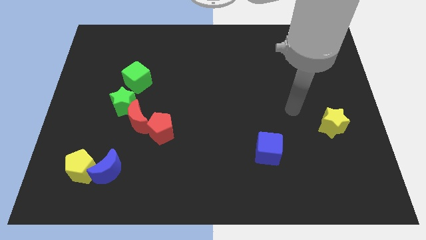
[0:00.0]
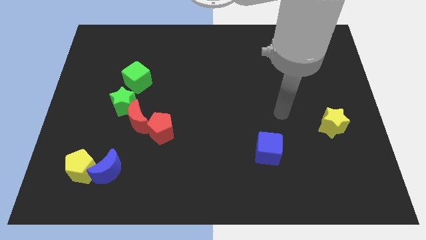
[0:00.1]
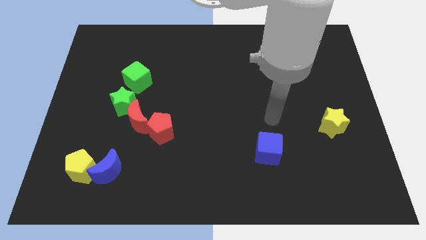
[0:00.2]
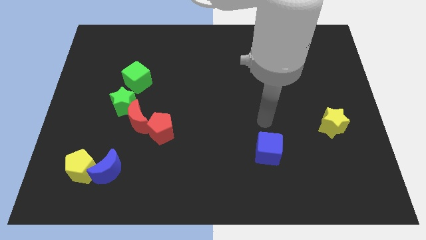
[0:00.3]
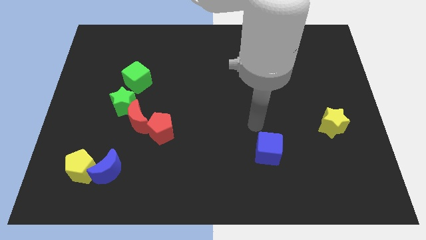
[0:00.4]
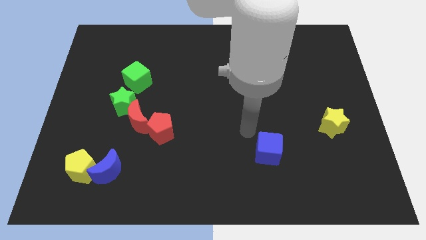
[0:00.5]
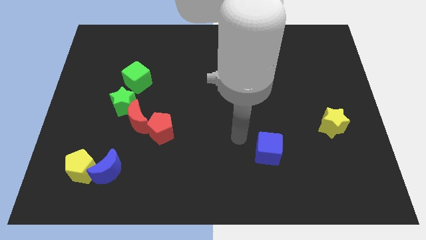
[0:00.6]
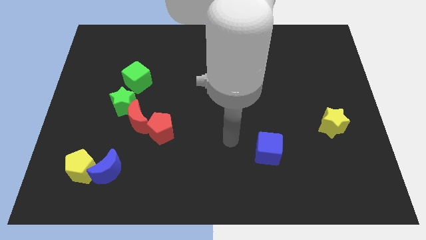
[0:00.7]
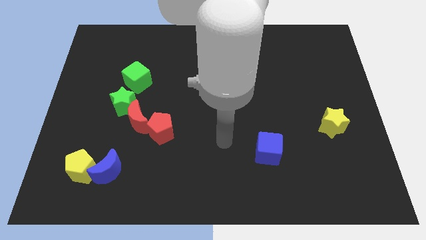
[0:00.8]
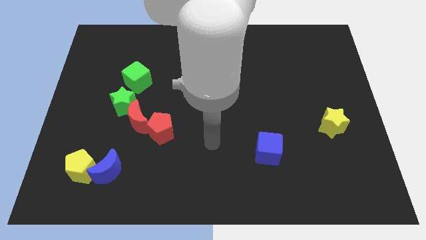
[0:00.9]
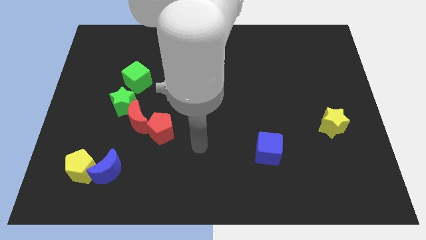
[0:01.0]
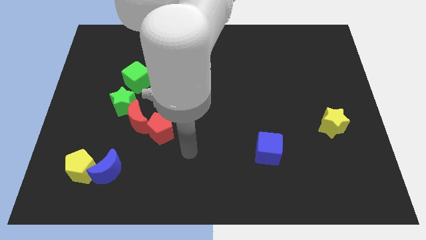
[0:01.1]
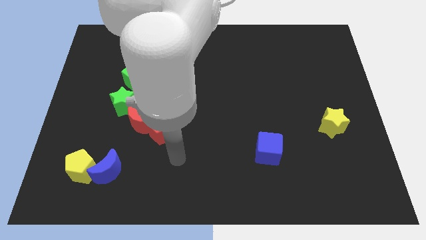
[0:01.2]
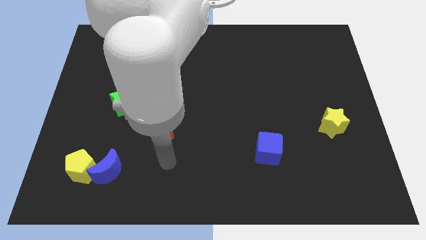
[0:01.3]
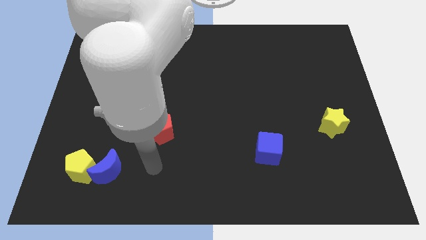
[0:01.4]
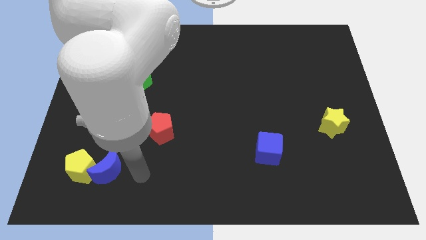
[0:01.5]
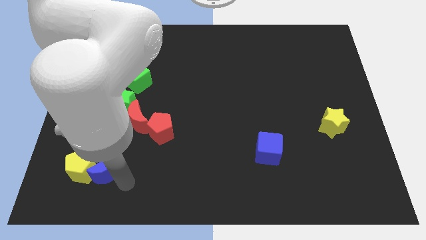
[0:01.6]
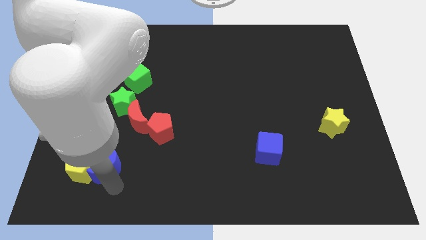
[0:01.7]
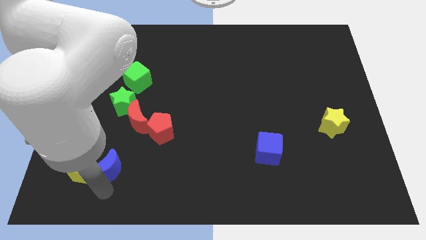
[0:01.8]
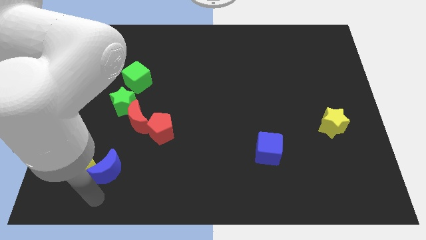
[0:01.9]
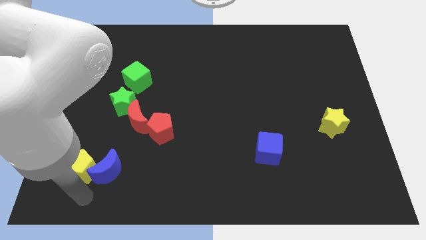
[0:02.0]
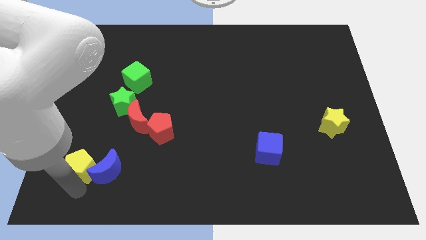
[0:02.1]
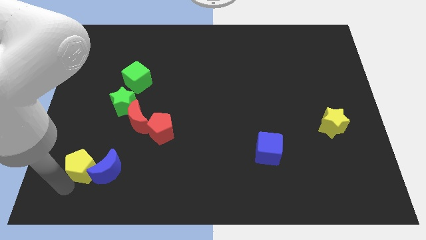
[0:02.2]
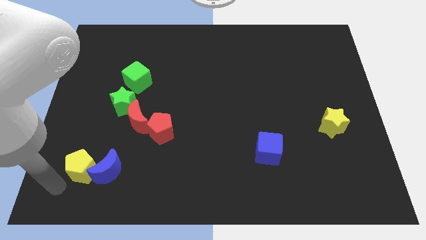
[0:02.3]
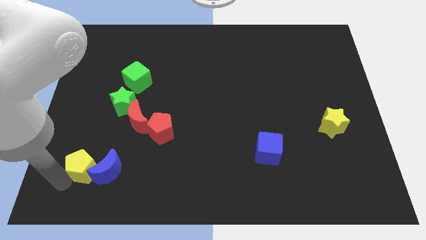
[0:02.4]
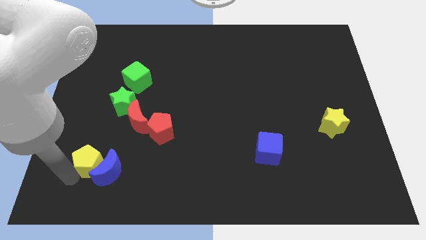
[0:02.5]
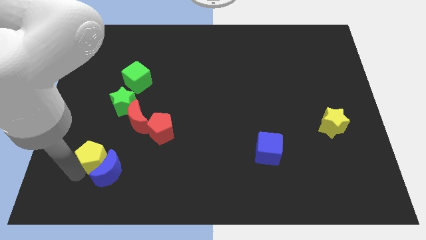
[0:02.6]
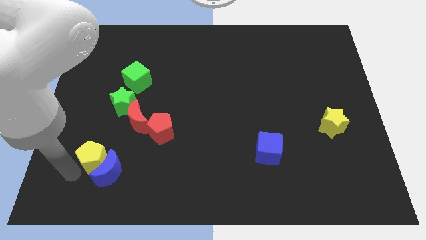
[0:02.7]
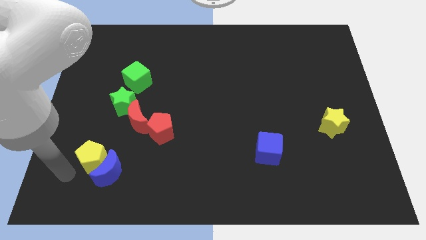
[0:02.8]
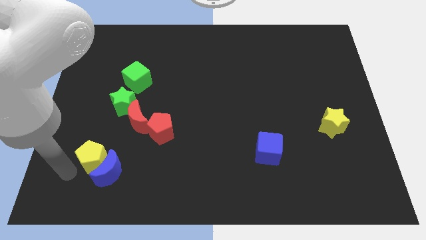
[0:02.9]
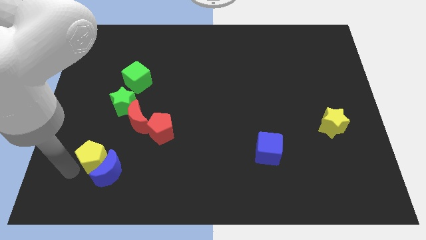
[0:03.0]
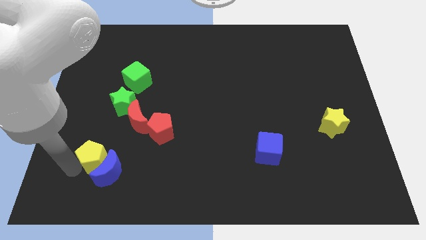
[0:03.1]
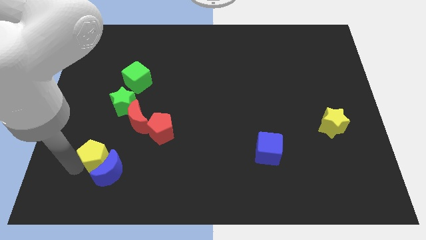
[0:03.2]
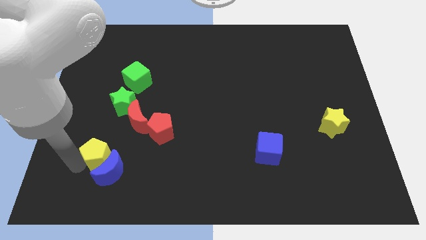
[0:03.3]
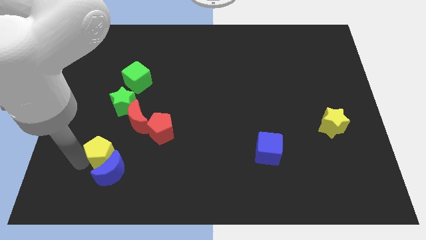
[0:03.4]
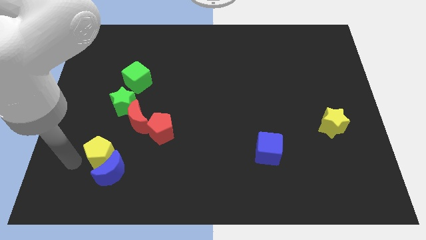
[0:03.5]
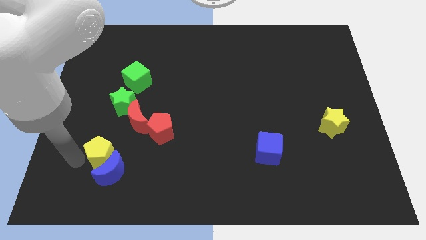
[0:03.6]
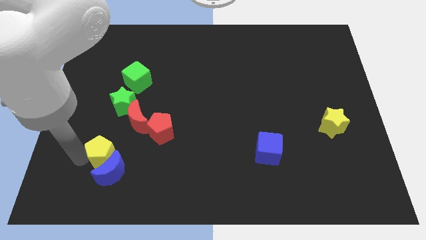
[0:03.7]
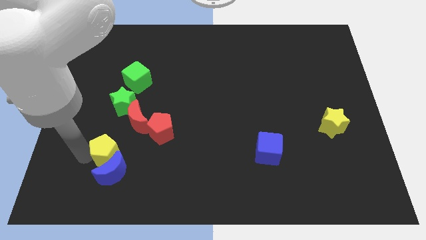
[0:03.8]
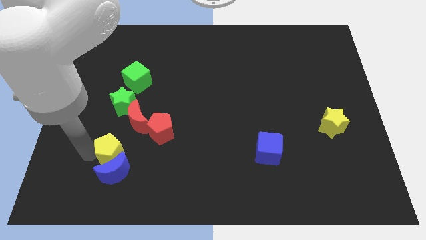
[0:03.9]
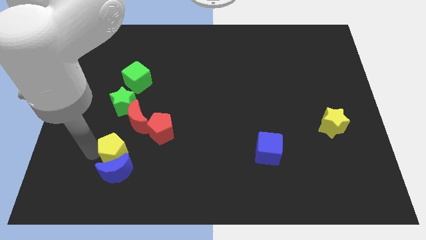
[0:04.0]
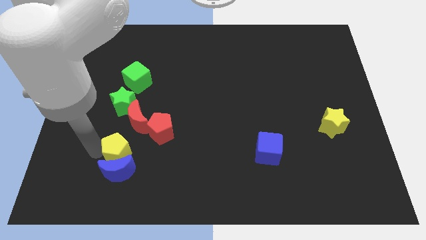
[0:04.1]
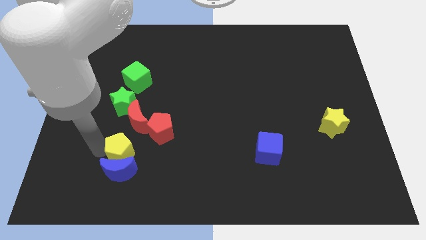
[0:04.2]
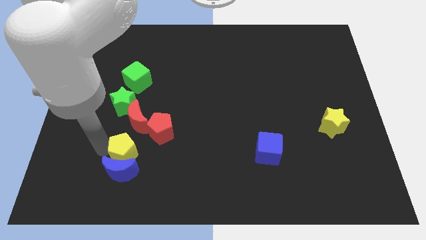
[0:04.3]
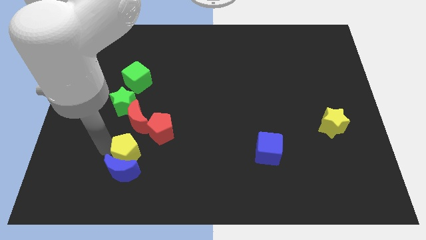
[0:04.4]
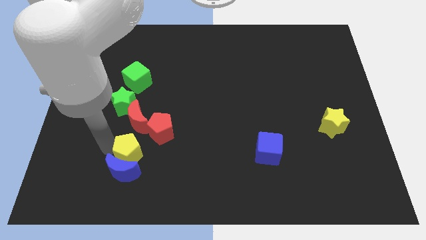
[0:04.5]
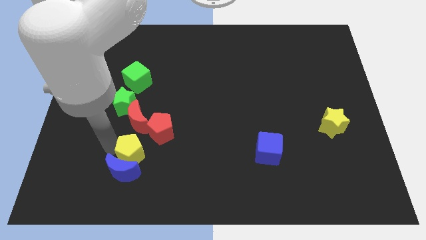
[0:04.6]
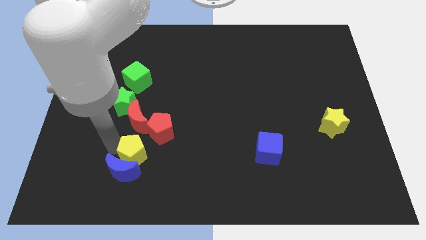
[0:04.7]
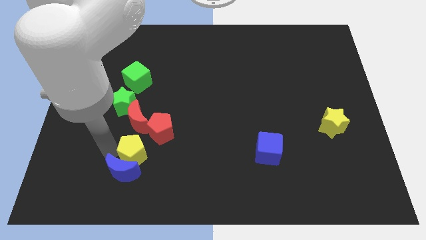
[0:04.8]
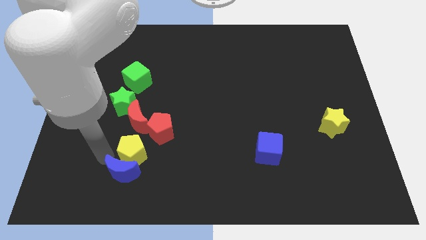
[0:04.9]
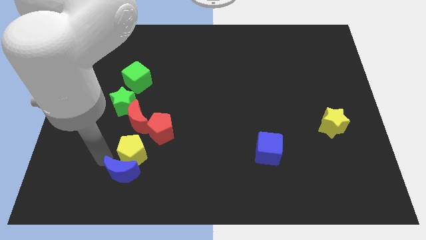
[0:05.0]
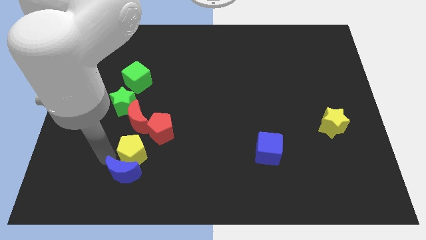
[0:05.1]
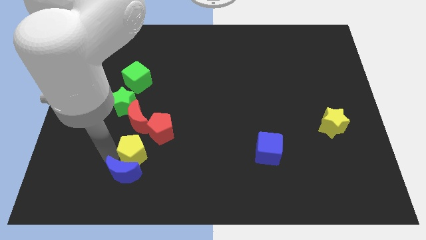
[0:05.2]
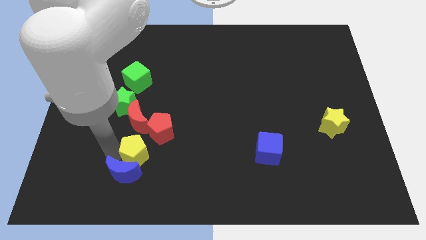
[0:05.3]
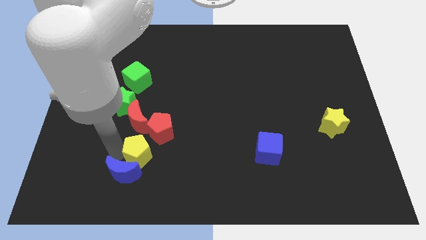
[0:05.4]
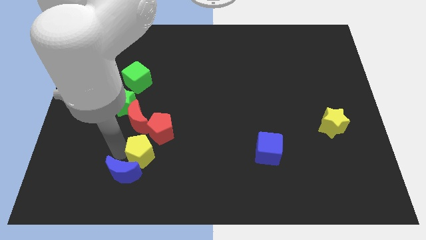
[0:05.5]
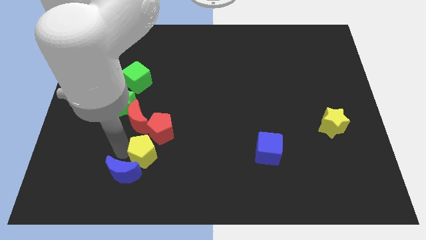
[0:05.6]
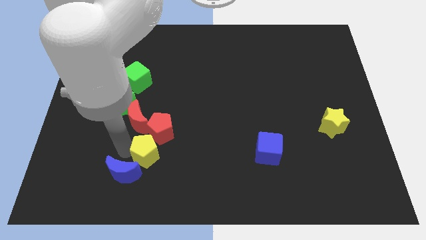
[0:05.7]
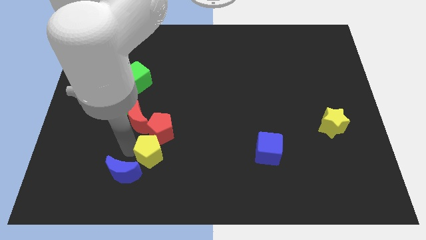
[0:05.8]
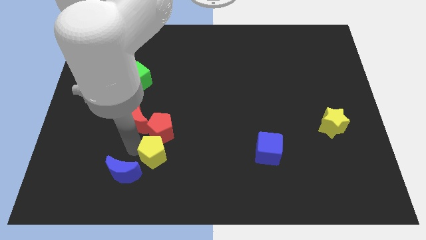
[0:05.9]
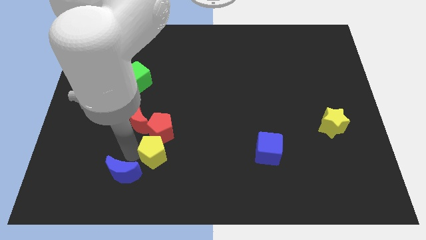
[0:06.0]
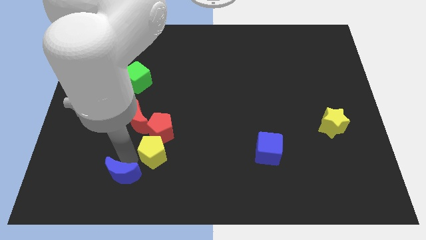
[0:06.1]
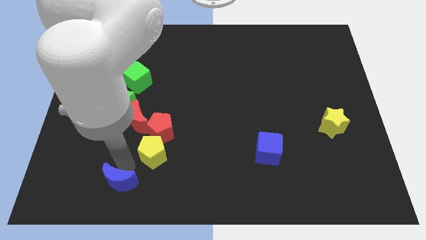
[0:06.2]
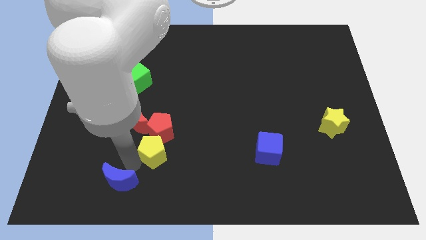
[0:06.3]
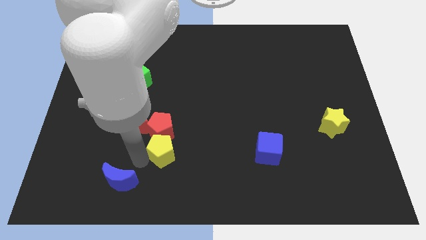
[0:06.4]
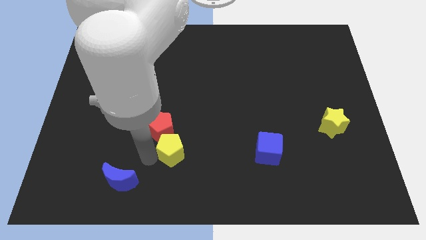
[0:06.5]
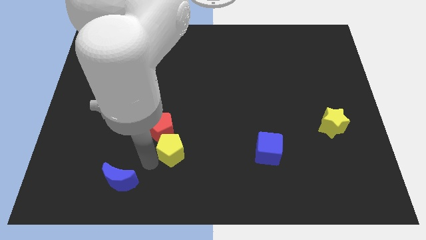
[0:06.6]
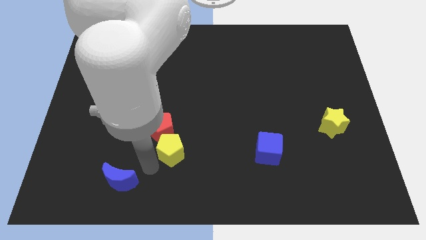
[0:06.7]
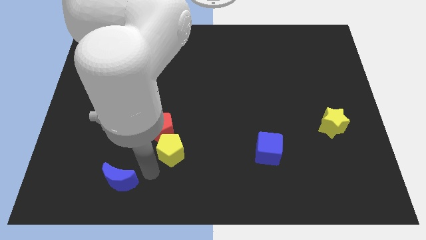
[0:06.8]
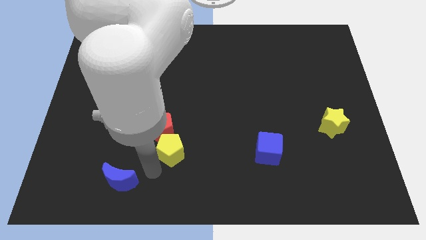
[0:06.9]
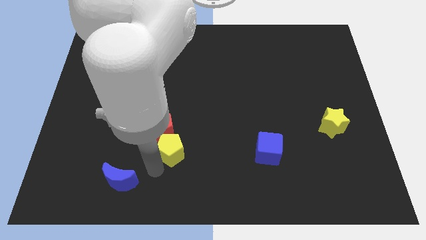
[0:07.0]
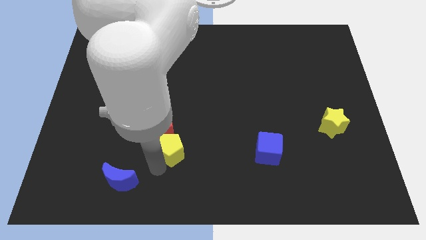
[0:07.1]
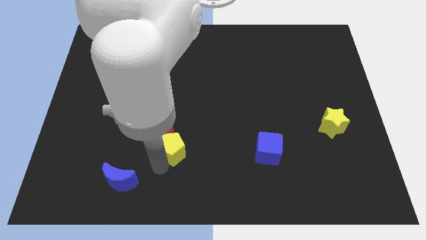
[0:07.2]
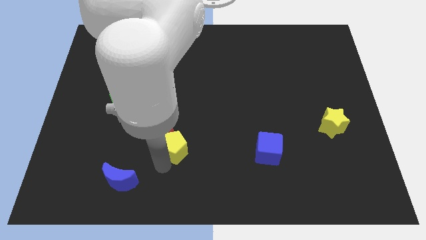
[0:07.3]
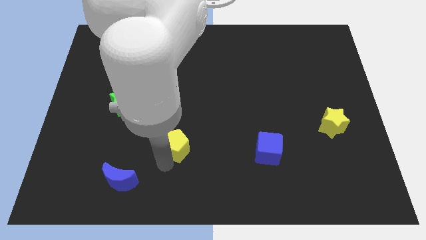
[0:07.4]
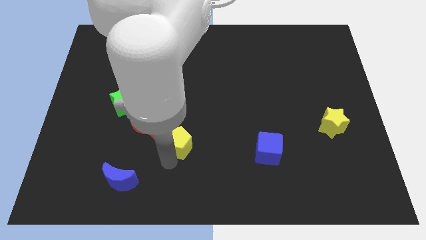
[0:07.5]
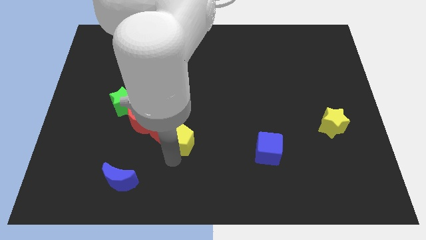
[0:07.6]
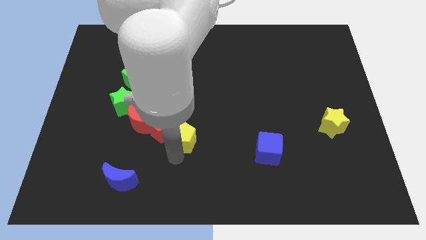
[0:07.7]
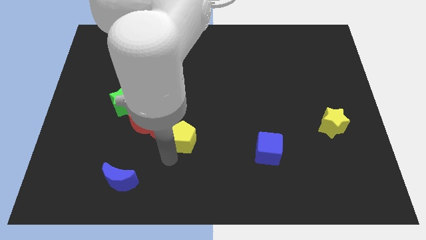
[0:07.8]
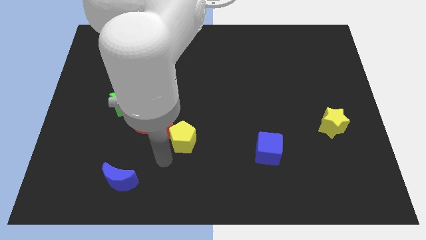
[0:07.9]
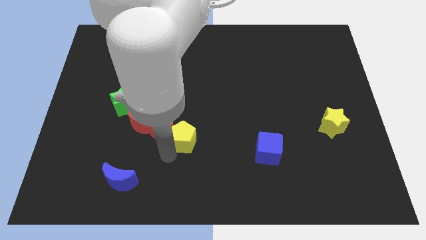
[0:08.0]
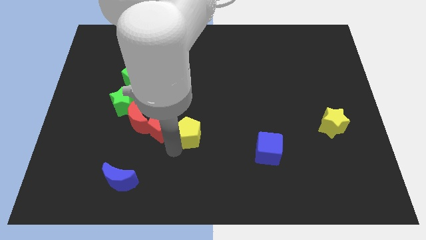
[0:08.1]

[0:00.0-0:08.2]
push the yellow pentagon to the center of the board
